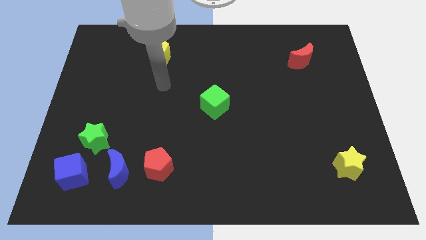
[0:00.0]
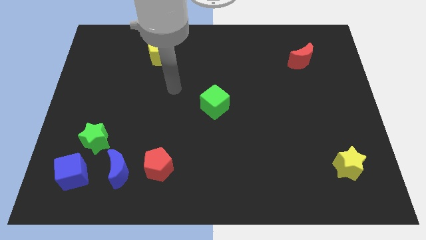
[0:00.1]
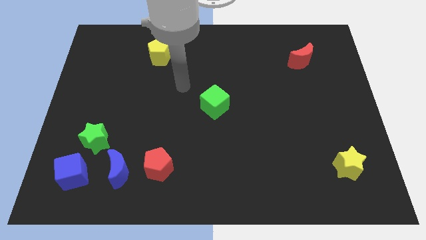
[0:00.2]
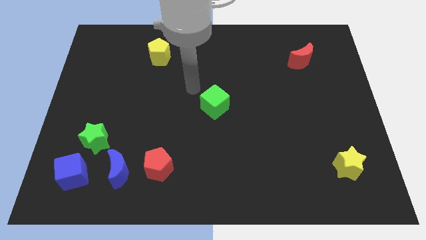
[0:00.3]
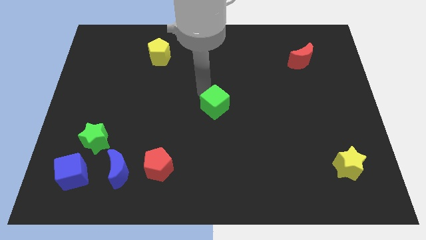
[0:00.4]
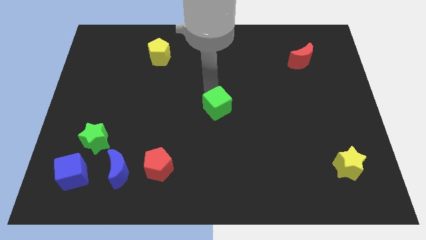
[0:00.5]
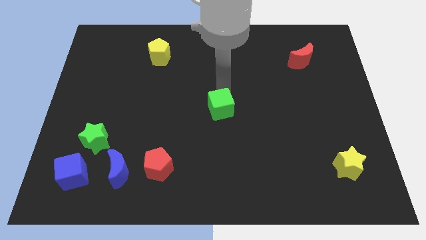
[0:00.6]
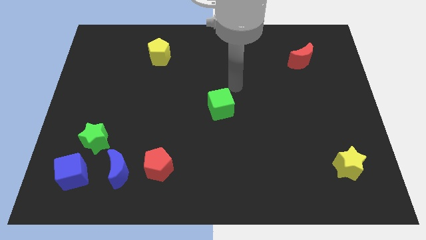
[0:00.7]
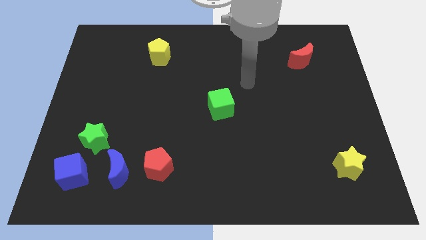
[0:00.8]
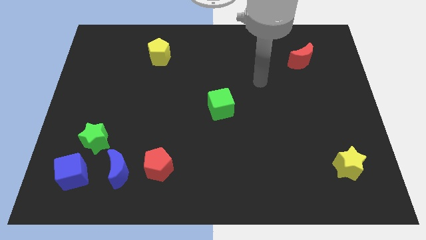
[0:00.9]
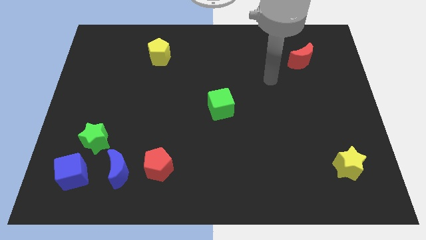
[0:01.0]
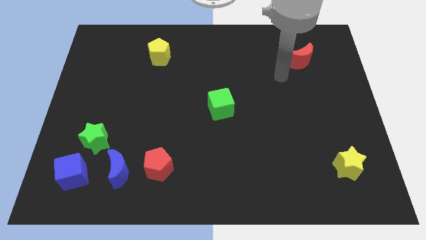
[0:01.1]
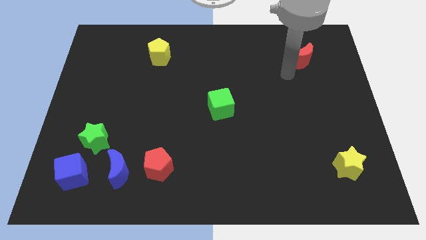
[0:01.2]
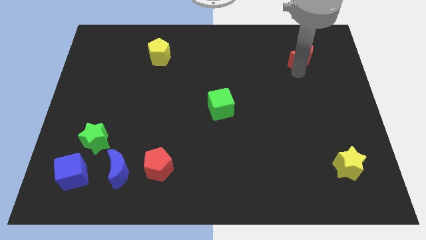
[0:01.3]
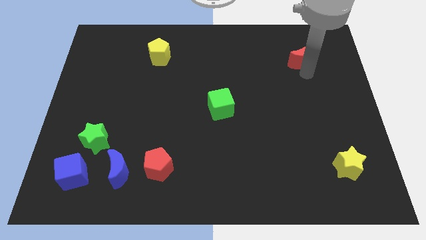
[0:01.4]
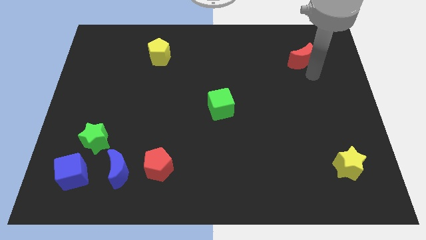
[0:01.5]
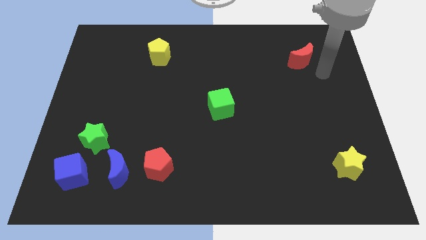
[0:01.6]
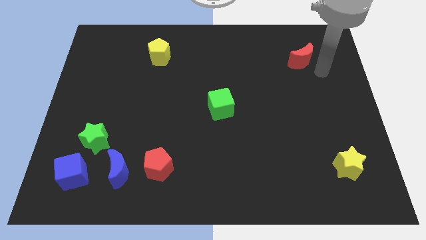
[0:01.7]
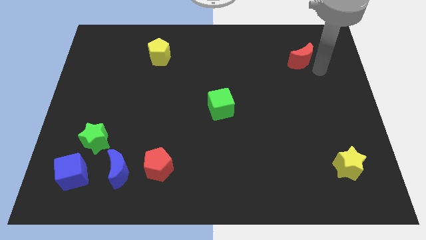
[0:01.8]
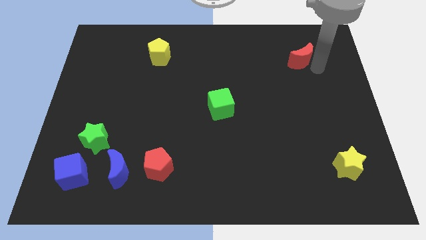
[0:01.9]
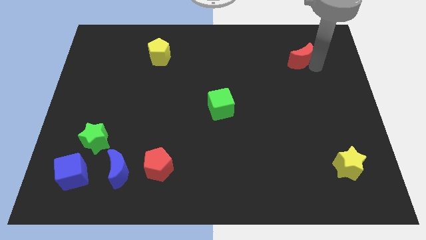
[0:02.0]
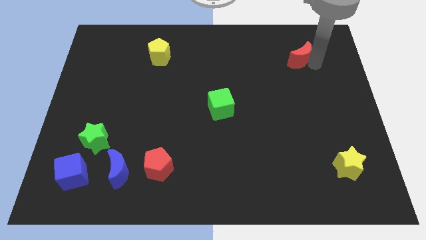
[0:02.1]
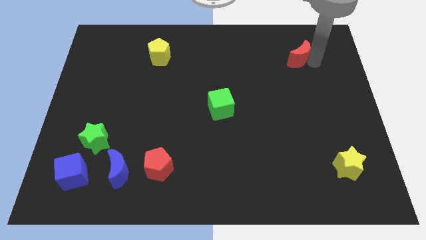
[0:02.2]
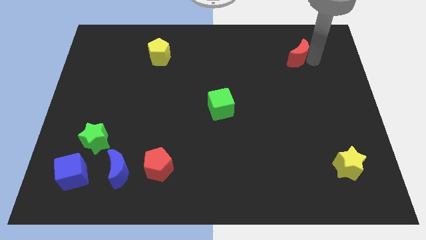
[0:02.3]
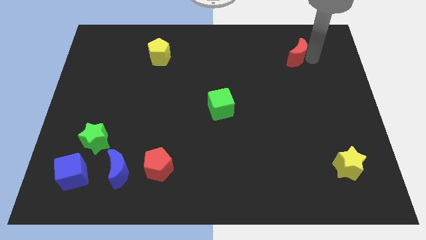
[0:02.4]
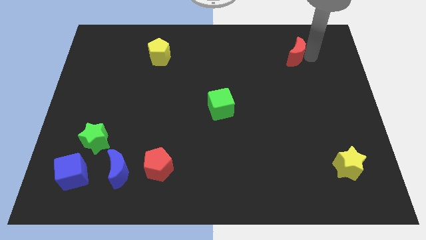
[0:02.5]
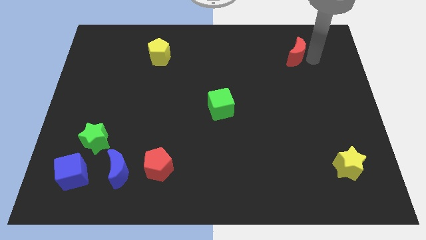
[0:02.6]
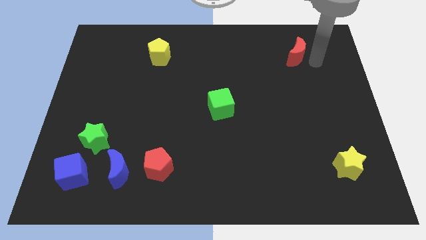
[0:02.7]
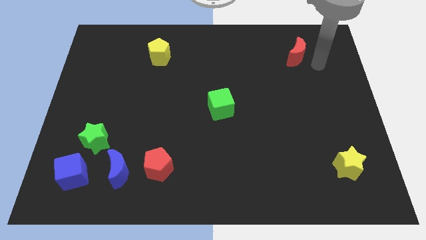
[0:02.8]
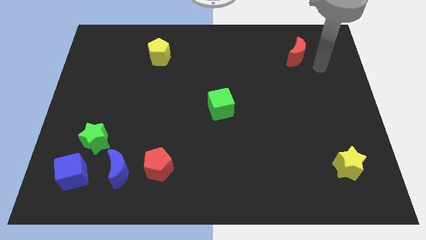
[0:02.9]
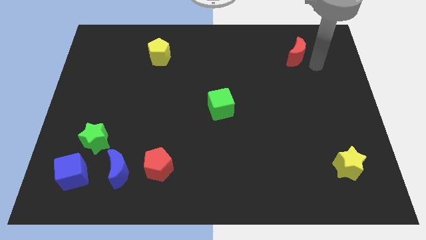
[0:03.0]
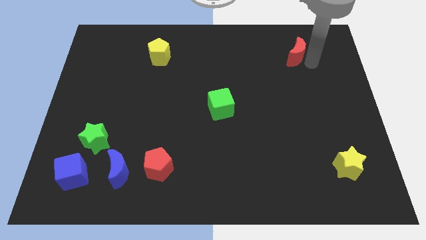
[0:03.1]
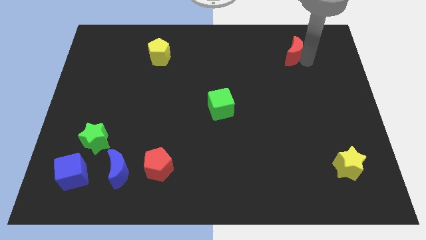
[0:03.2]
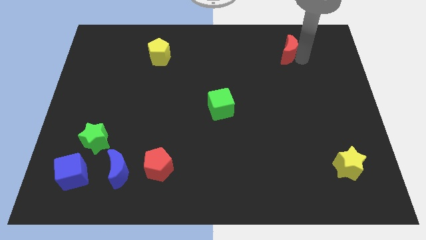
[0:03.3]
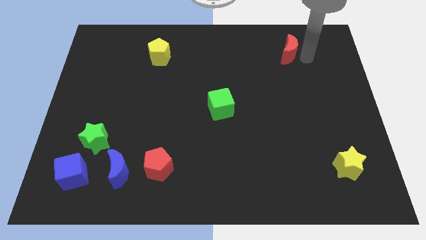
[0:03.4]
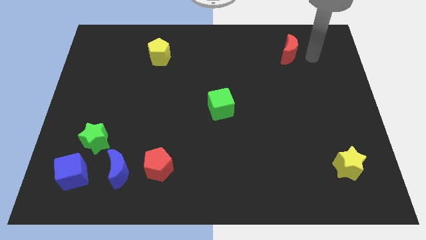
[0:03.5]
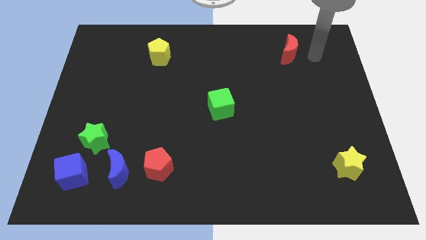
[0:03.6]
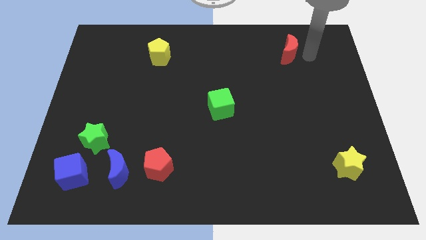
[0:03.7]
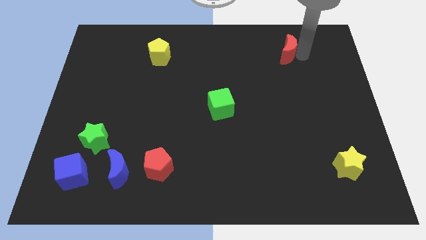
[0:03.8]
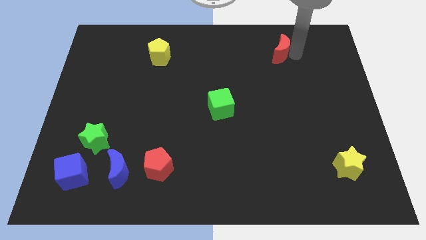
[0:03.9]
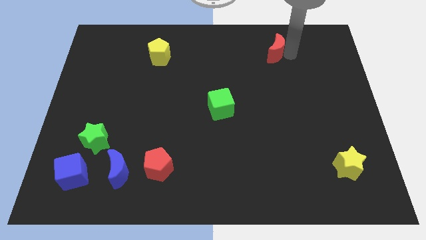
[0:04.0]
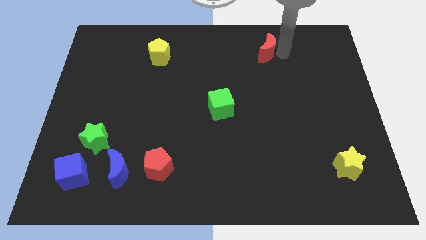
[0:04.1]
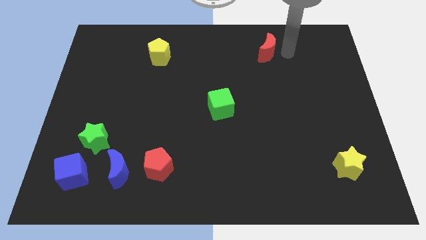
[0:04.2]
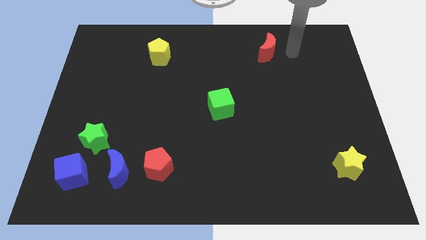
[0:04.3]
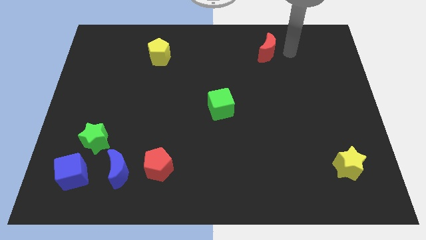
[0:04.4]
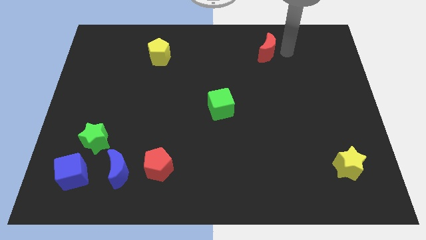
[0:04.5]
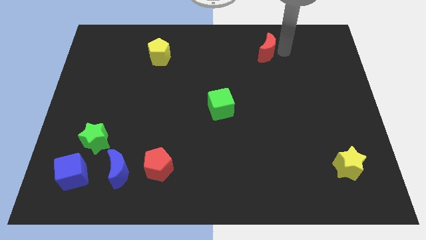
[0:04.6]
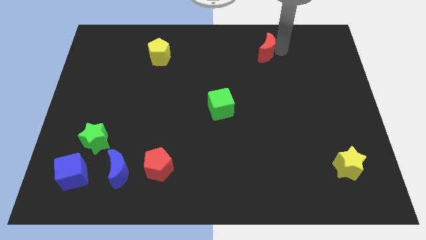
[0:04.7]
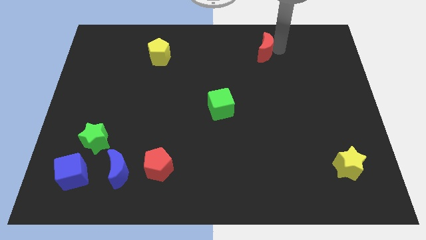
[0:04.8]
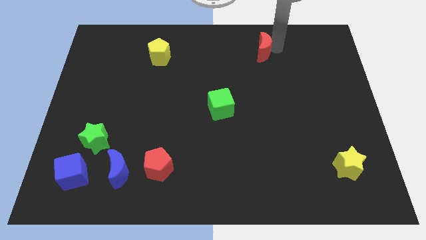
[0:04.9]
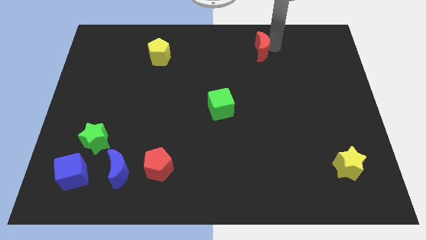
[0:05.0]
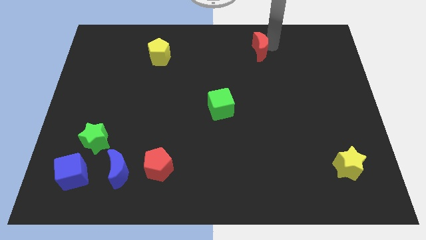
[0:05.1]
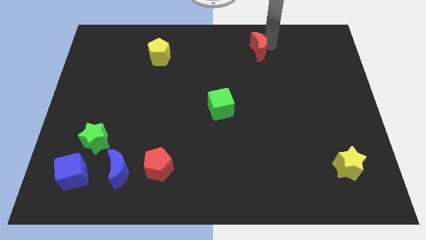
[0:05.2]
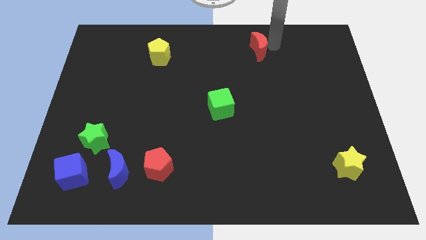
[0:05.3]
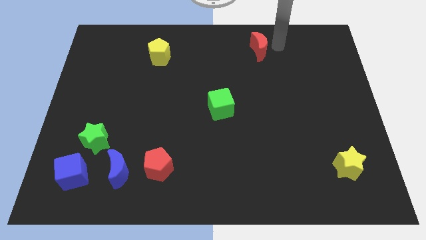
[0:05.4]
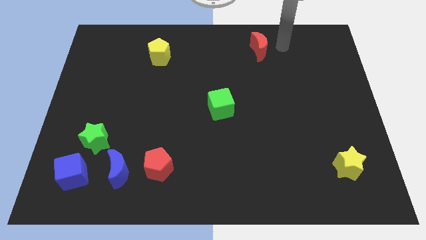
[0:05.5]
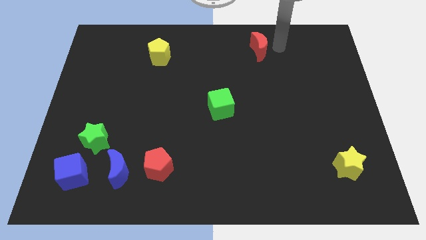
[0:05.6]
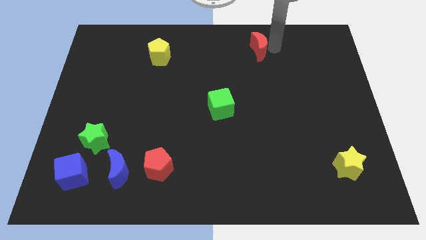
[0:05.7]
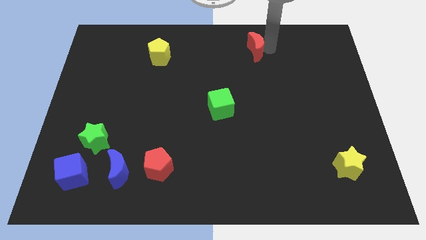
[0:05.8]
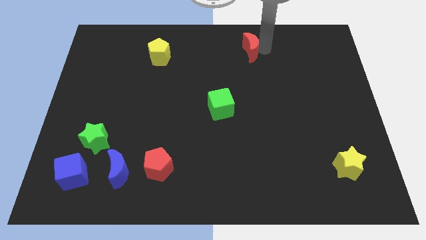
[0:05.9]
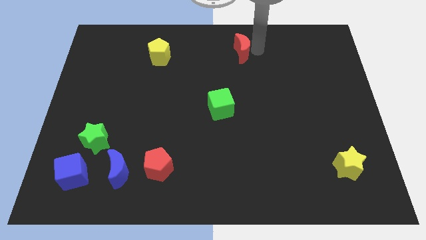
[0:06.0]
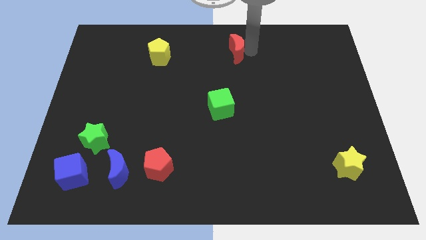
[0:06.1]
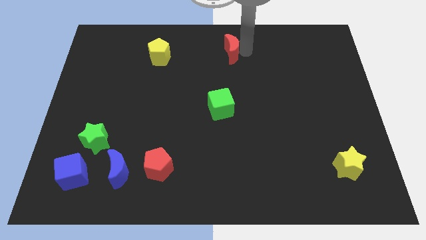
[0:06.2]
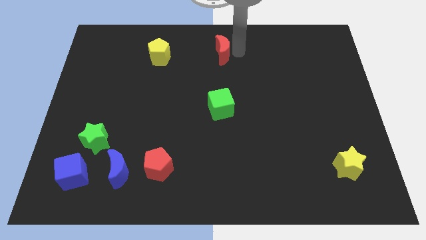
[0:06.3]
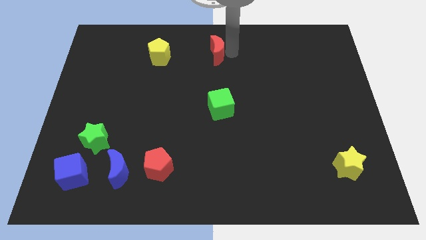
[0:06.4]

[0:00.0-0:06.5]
move the red moon right of the yellow pentagon
